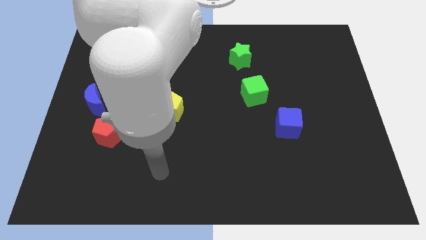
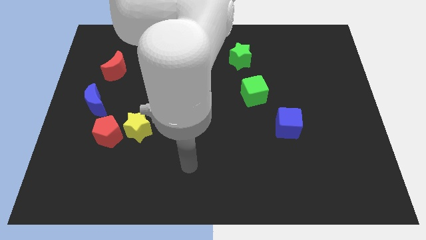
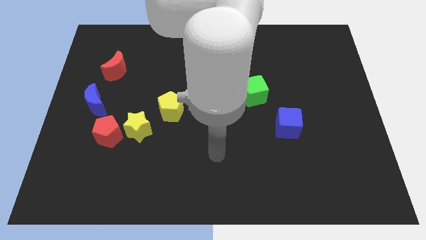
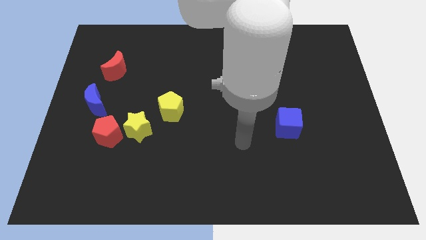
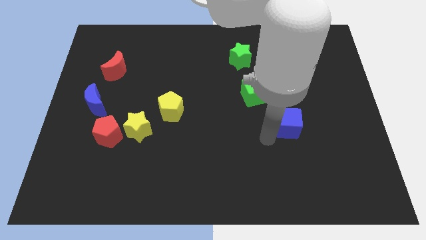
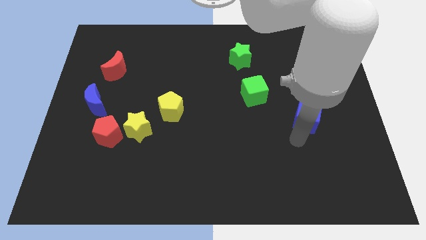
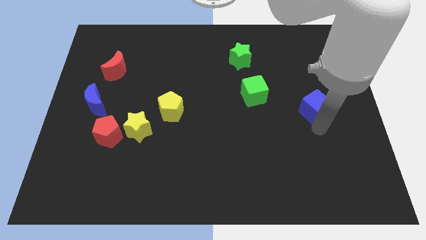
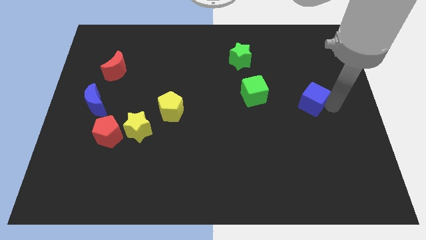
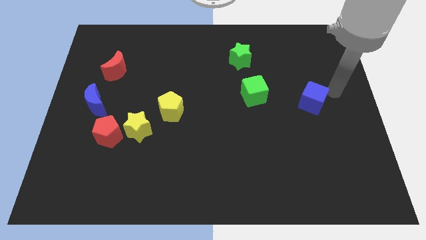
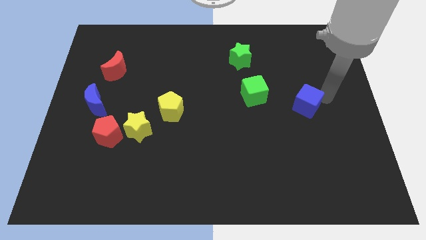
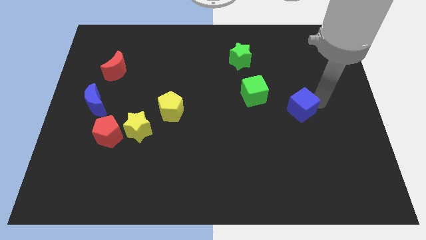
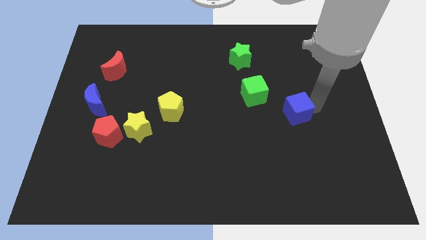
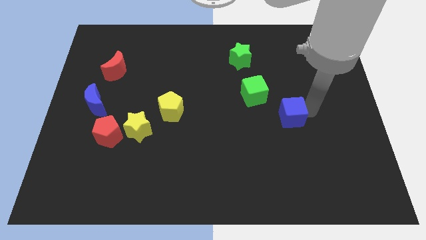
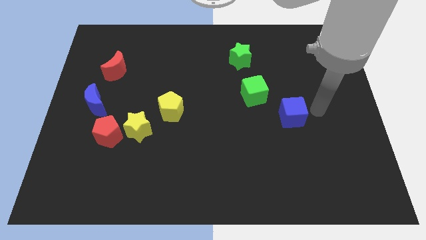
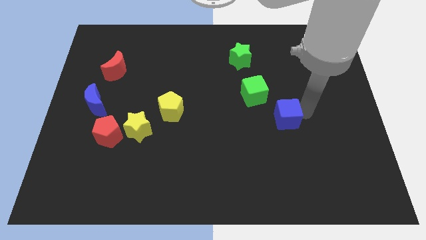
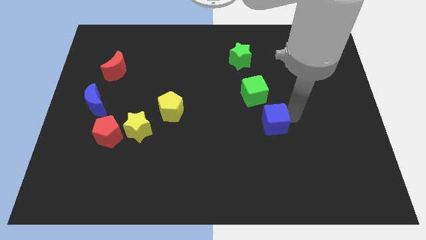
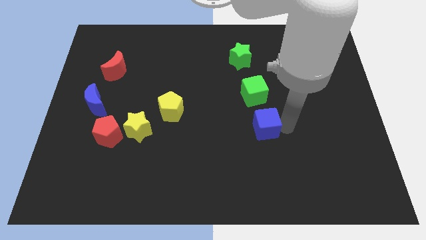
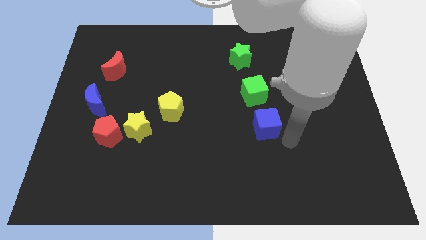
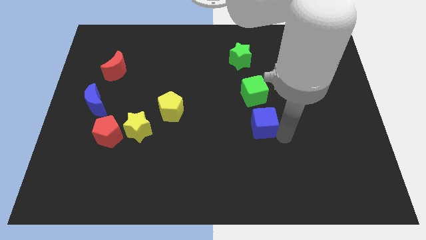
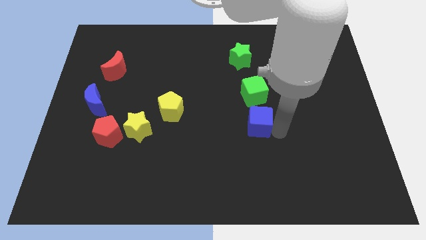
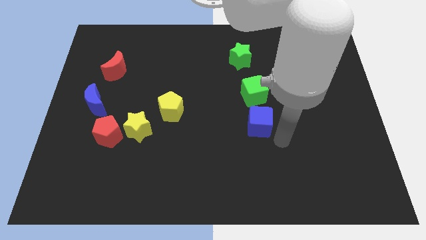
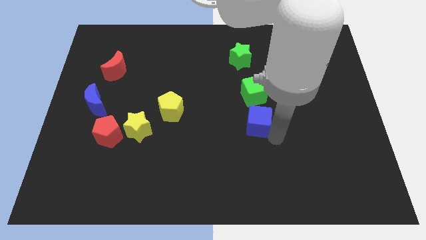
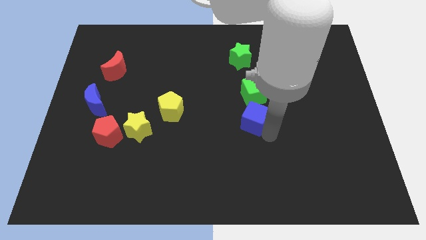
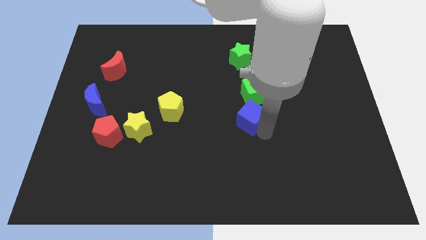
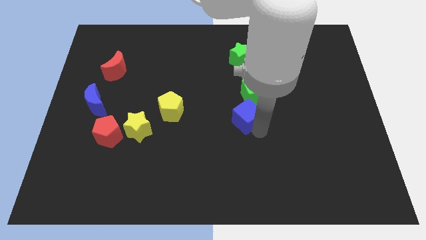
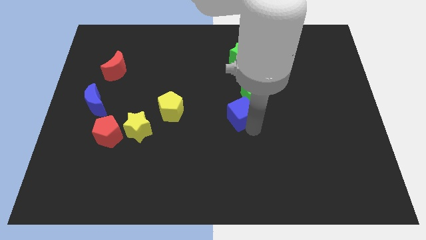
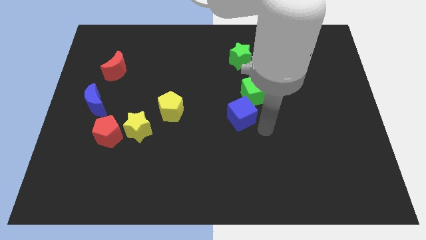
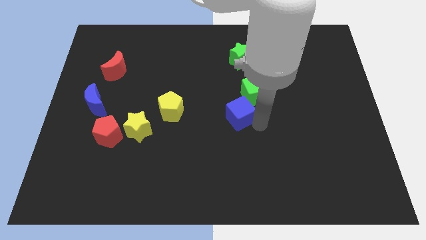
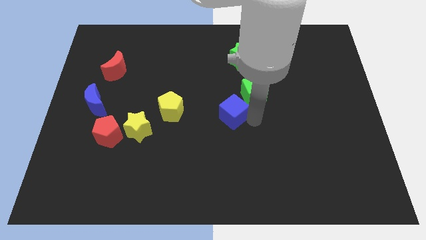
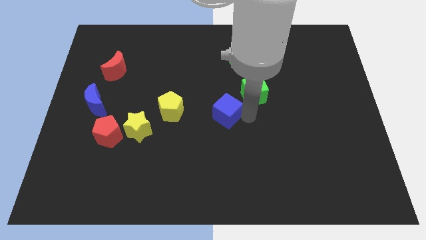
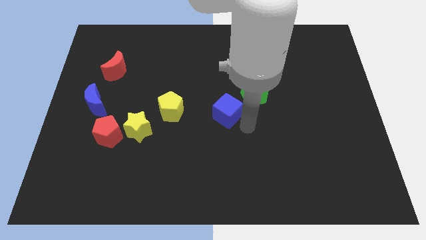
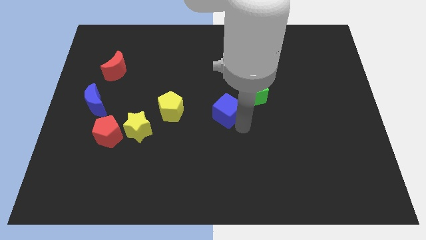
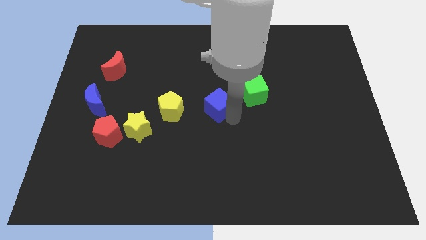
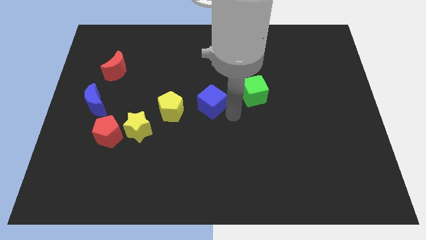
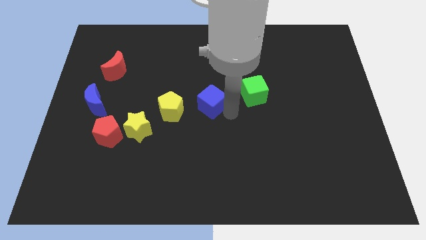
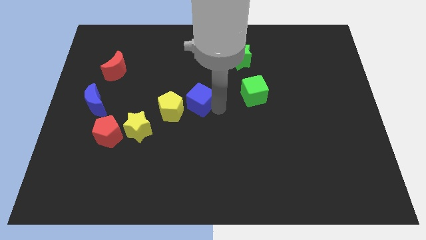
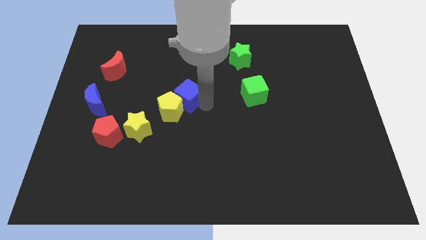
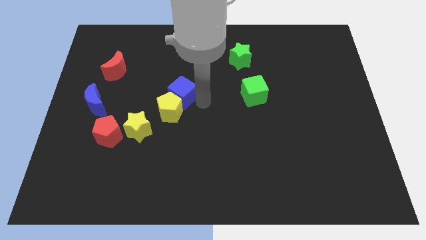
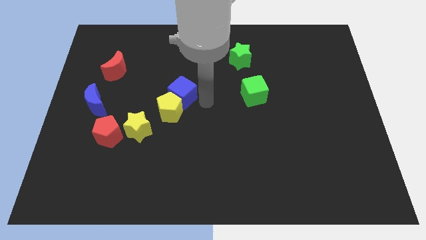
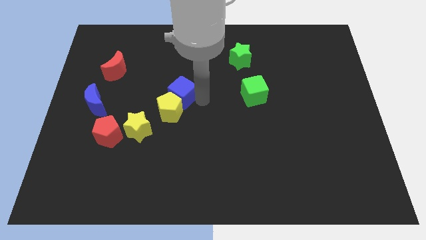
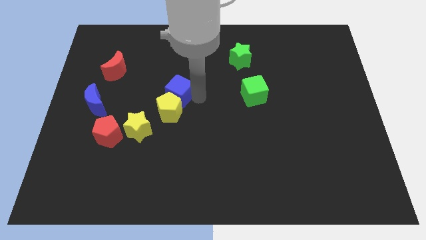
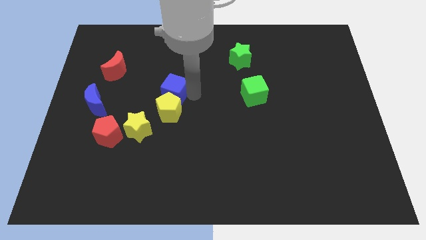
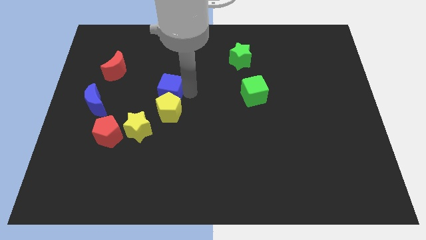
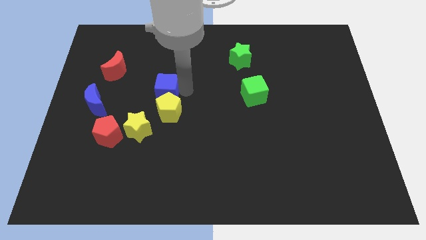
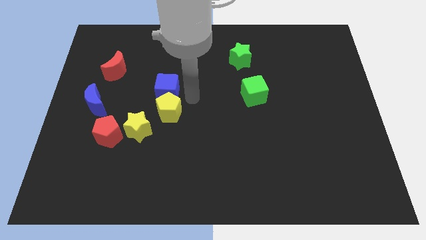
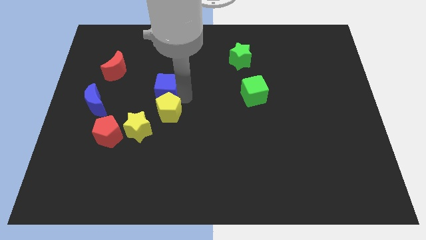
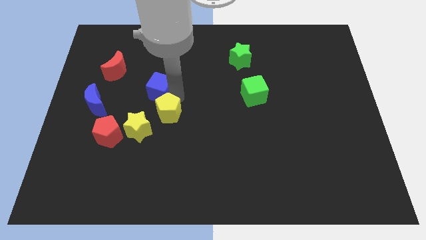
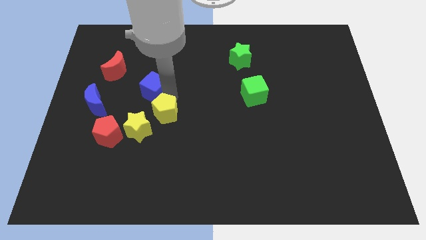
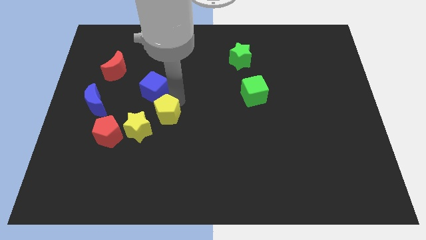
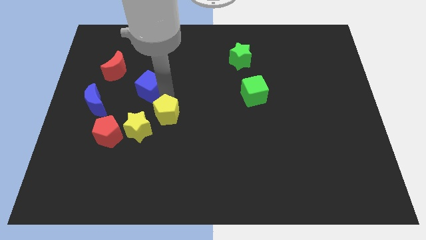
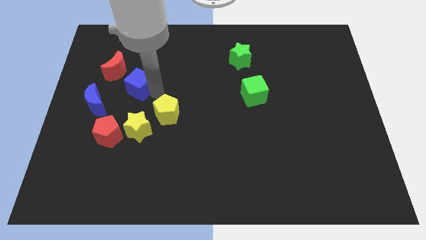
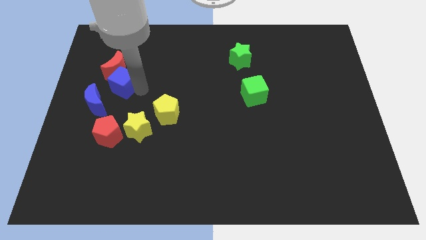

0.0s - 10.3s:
put the blue cube next to the red moon

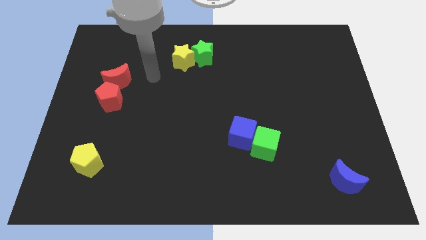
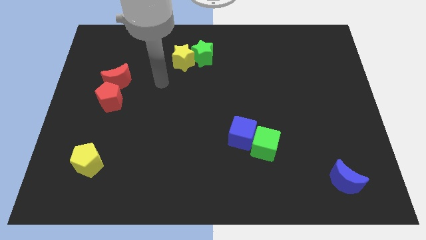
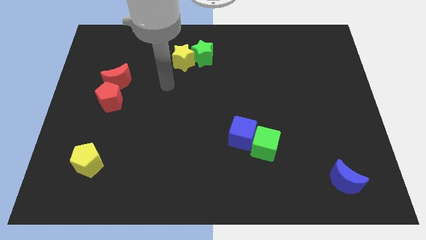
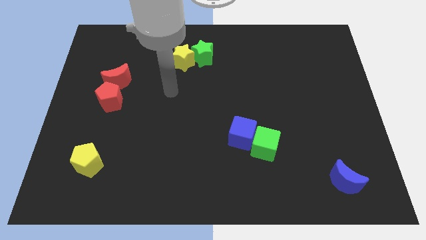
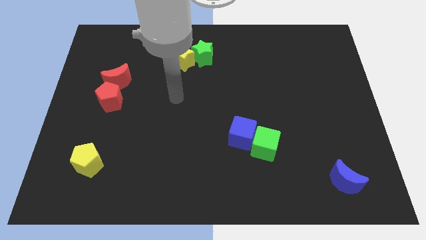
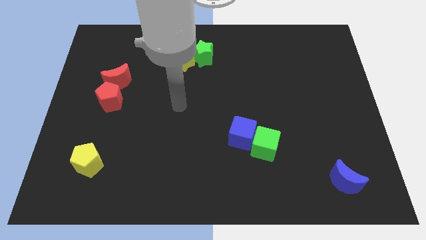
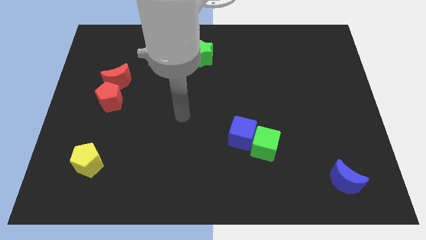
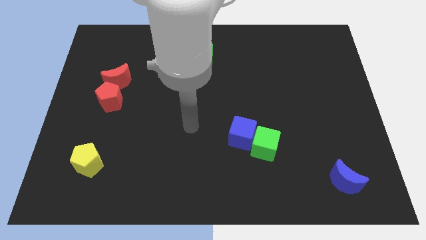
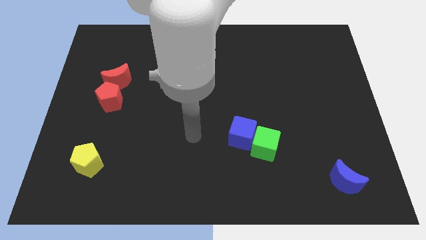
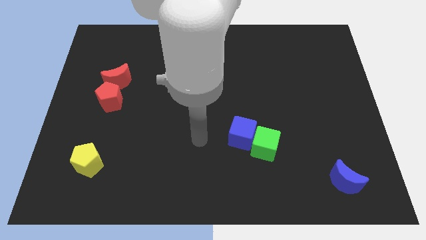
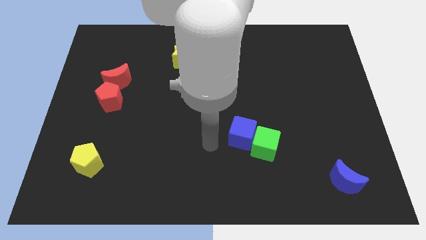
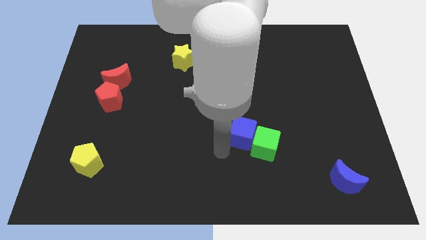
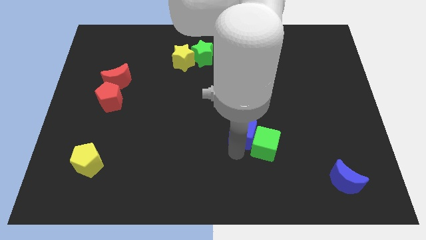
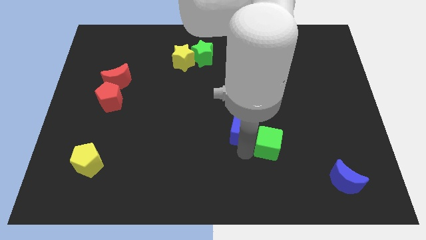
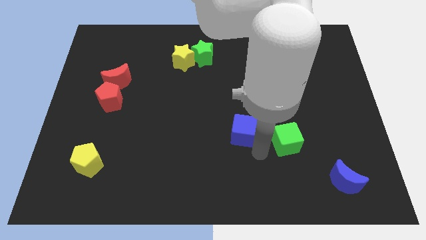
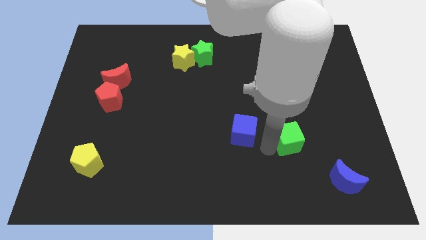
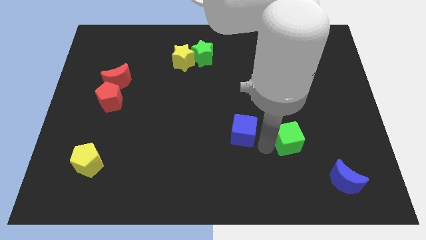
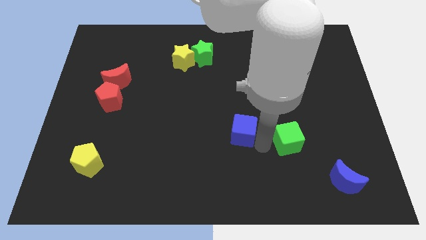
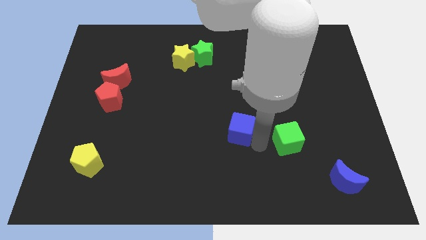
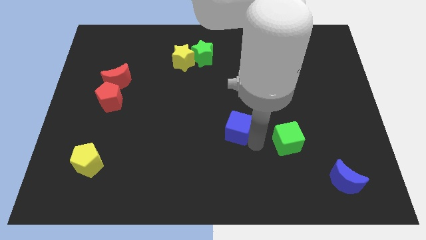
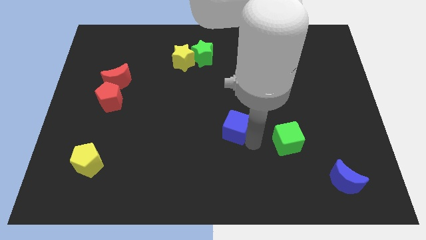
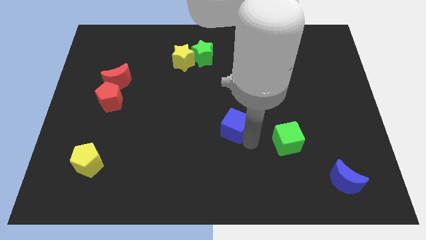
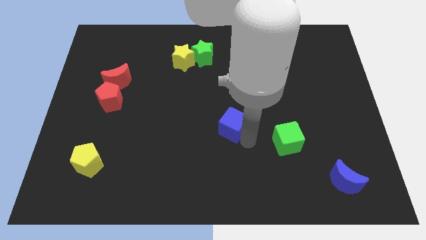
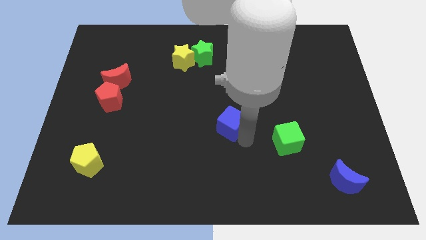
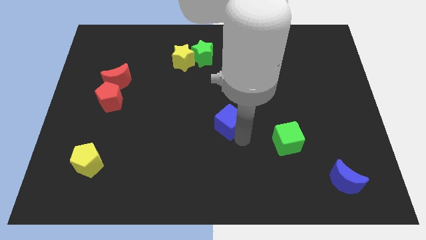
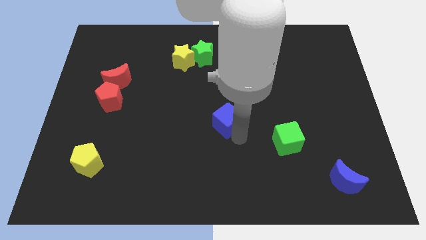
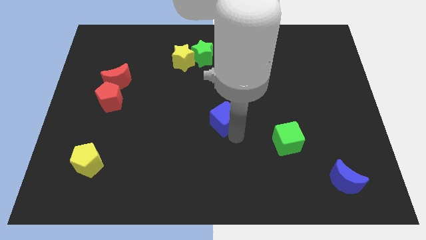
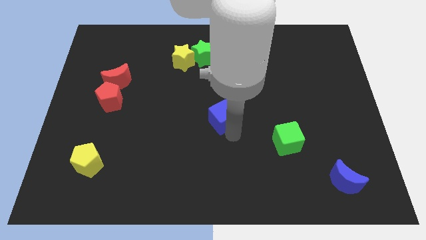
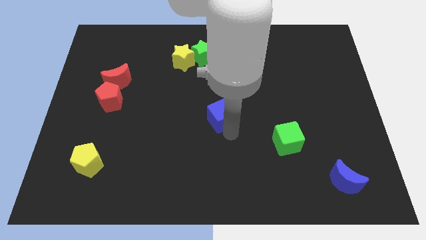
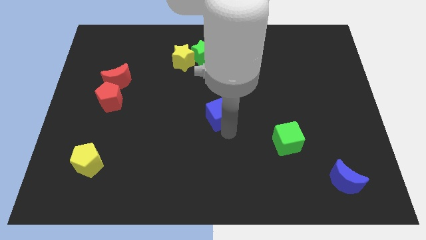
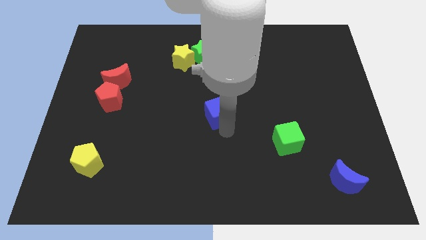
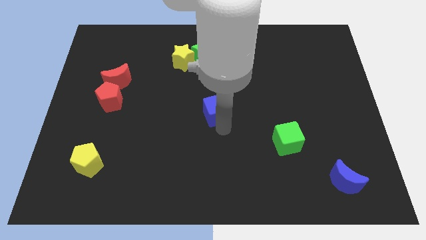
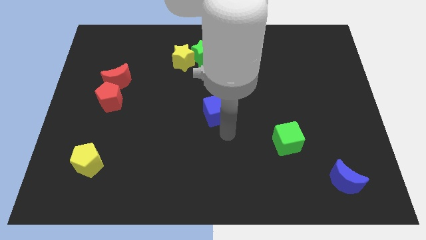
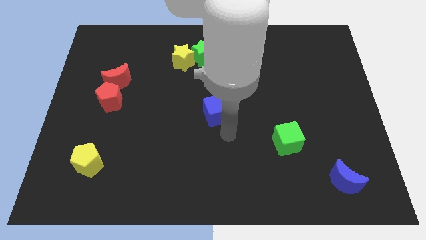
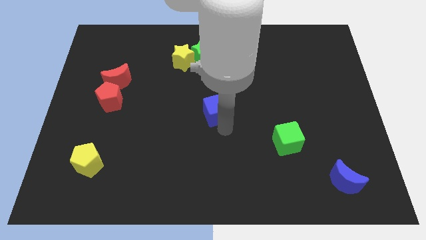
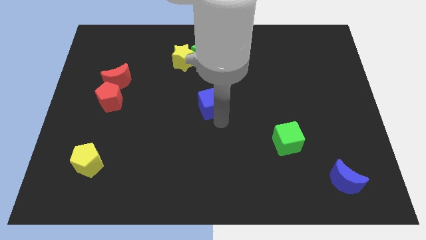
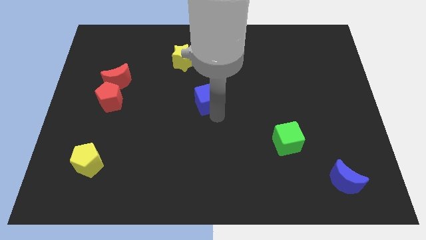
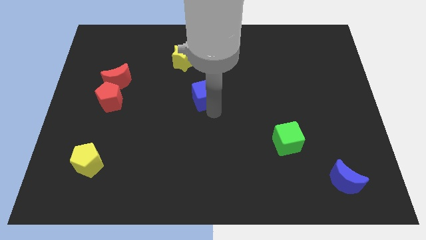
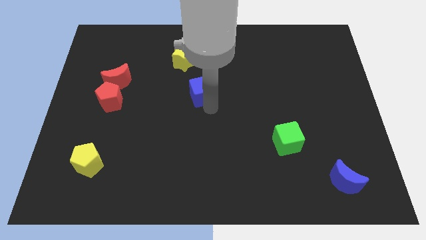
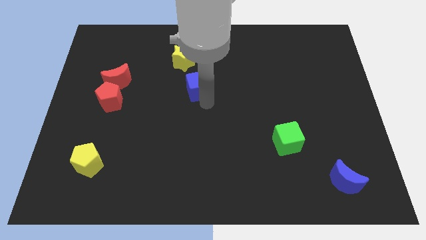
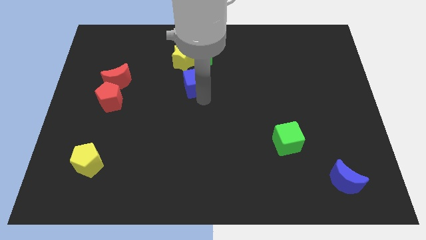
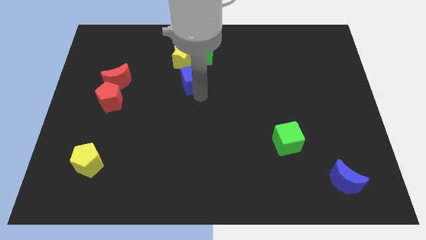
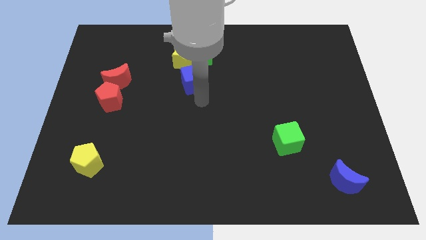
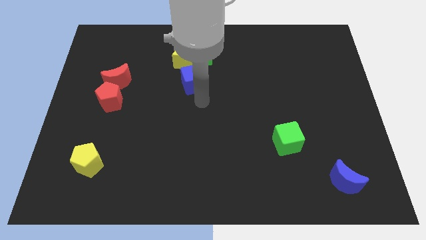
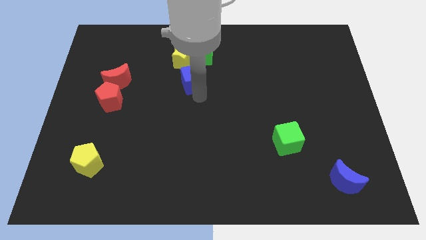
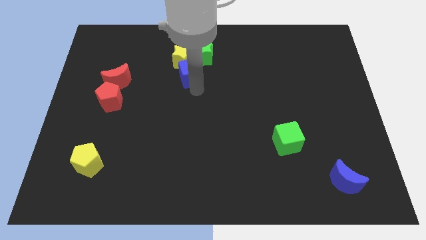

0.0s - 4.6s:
put the blue cube towards the yellow star
